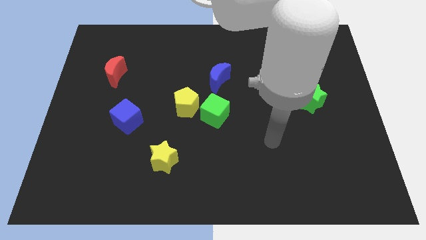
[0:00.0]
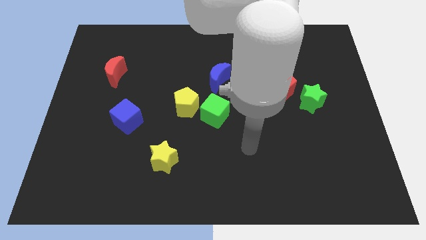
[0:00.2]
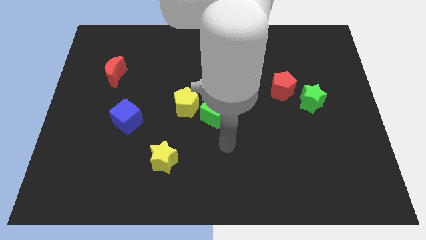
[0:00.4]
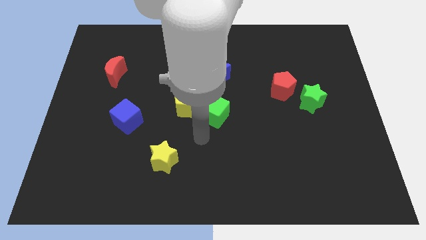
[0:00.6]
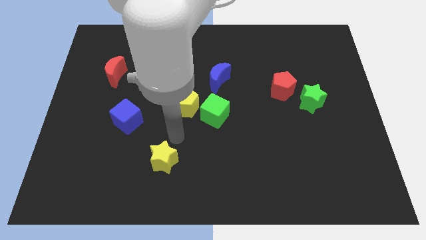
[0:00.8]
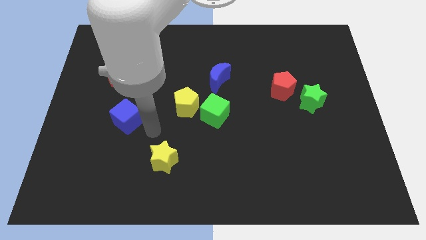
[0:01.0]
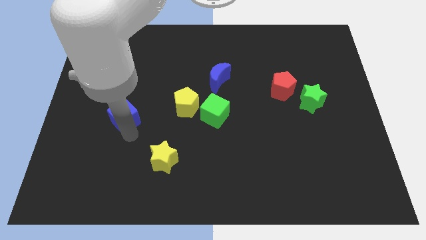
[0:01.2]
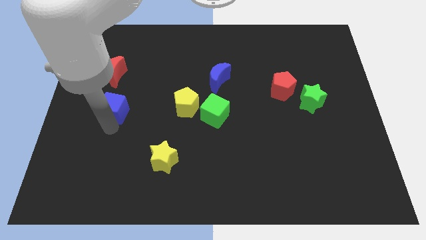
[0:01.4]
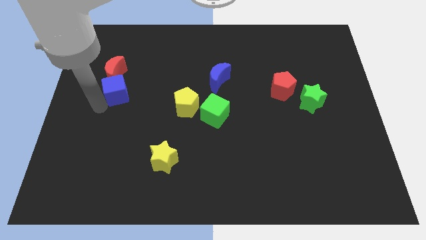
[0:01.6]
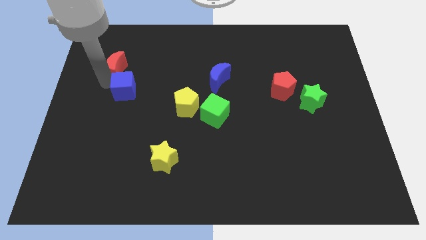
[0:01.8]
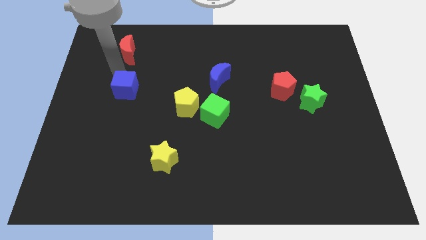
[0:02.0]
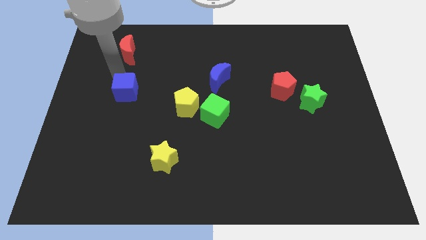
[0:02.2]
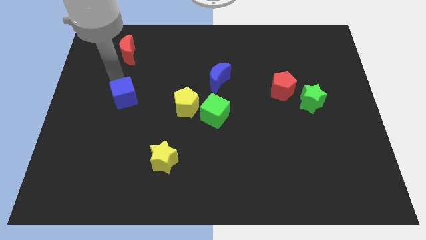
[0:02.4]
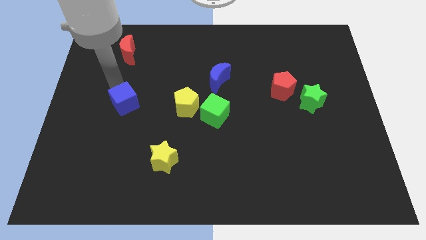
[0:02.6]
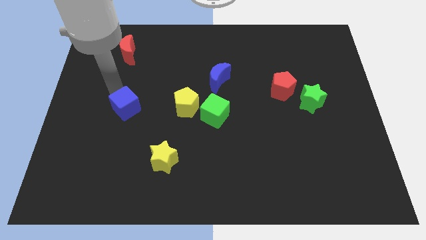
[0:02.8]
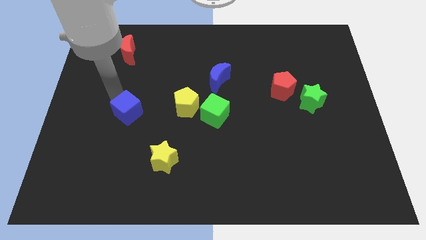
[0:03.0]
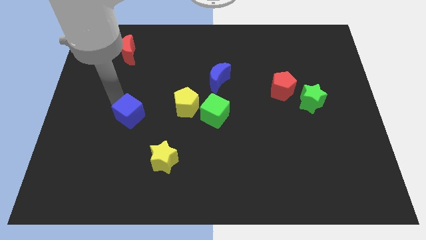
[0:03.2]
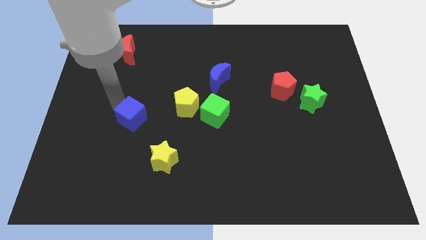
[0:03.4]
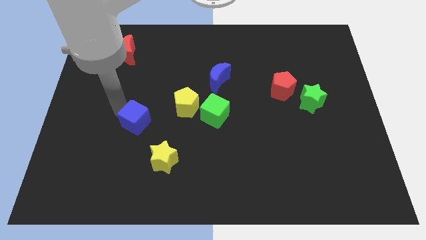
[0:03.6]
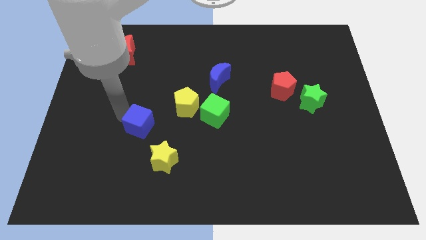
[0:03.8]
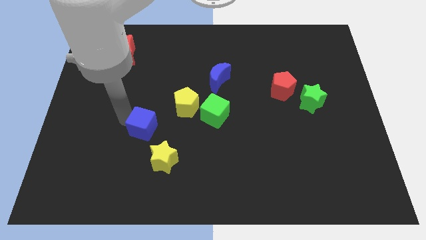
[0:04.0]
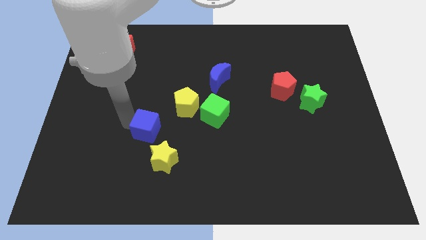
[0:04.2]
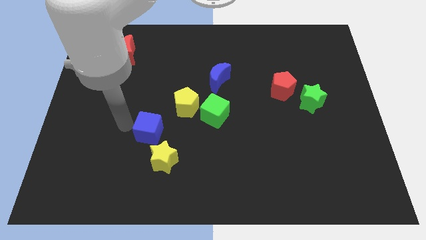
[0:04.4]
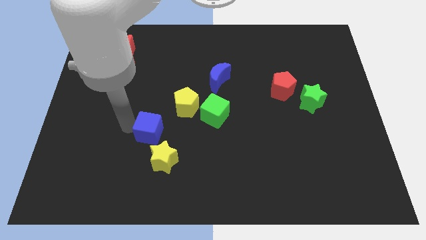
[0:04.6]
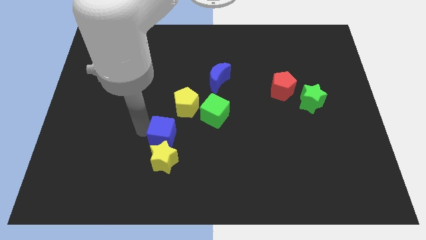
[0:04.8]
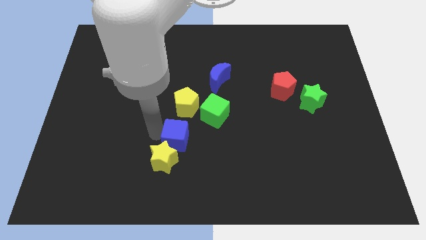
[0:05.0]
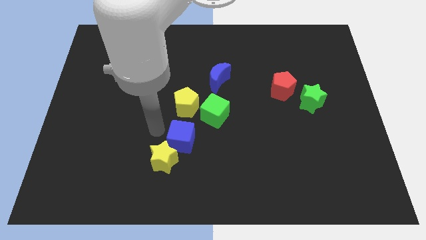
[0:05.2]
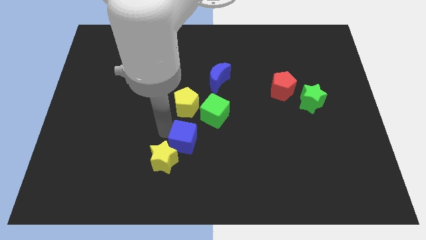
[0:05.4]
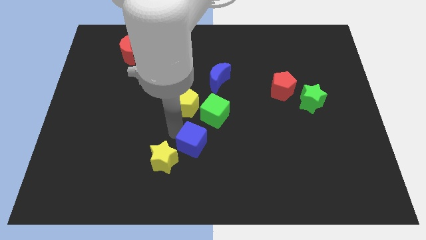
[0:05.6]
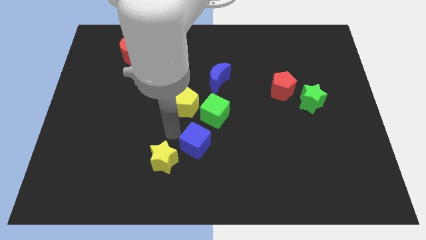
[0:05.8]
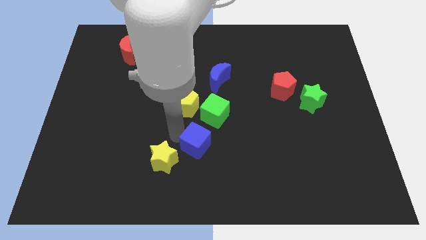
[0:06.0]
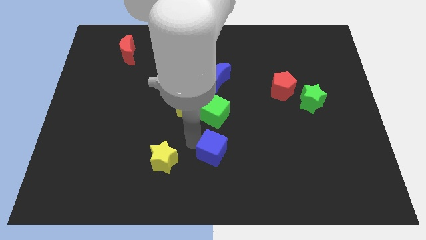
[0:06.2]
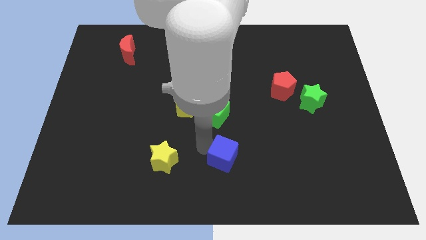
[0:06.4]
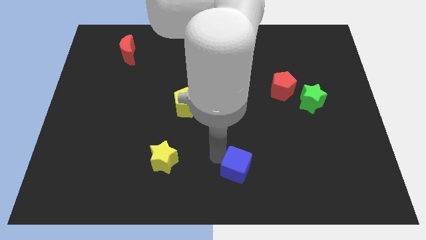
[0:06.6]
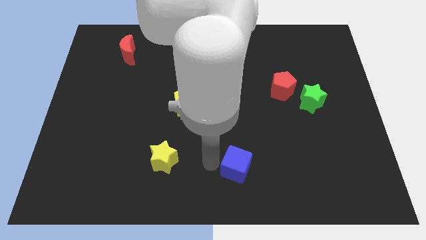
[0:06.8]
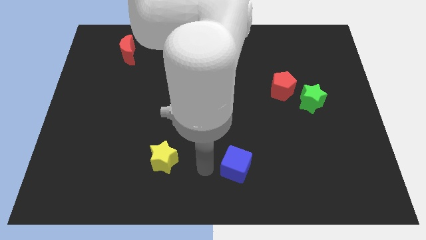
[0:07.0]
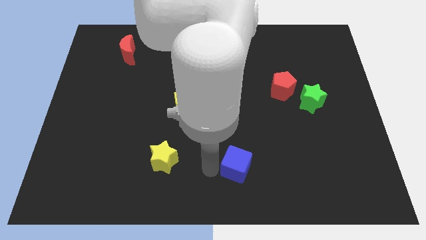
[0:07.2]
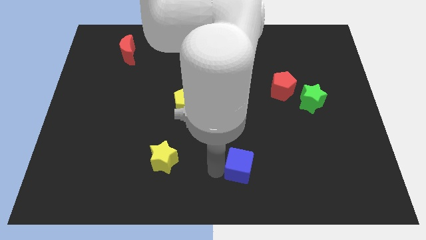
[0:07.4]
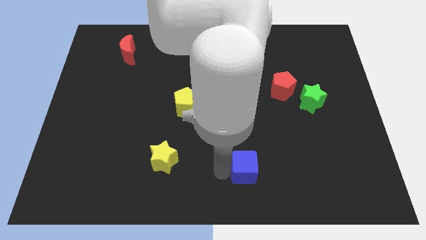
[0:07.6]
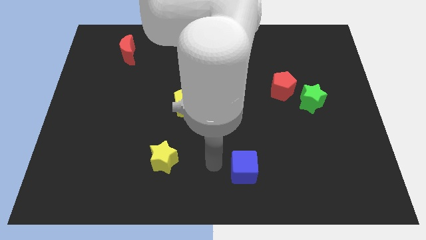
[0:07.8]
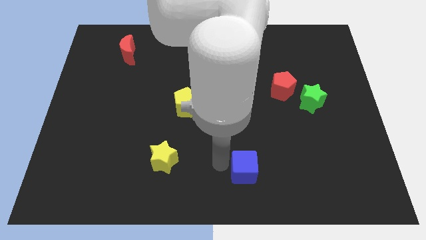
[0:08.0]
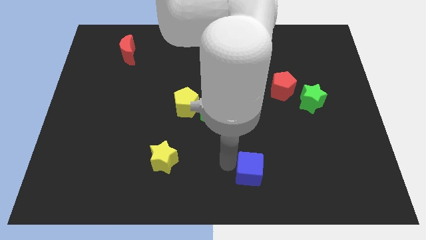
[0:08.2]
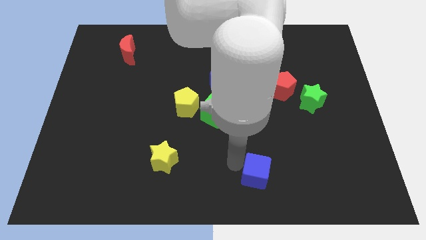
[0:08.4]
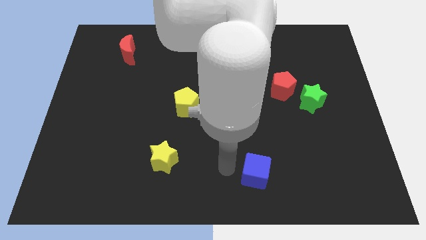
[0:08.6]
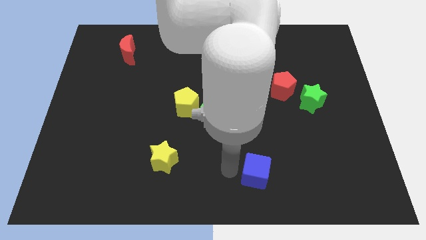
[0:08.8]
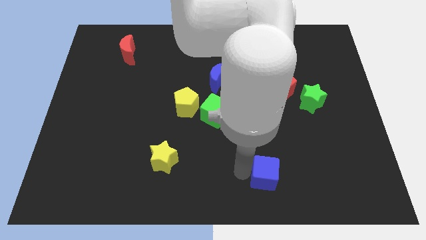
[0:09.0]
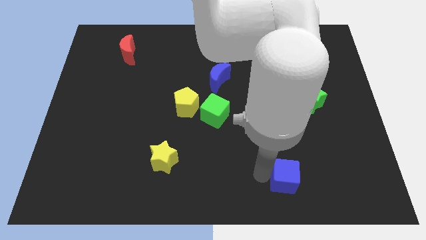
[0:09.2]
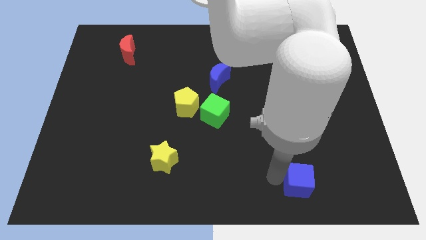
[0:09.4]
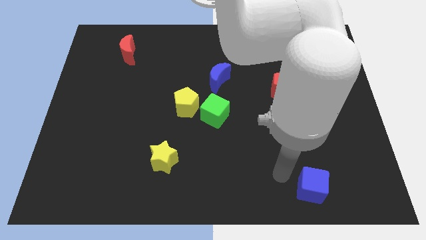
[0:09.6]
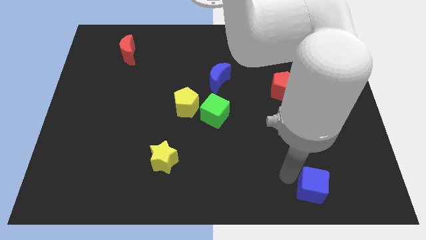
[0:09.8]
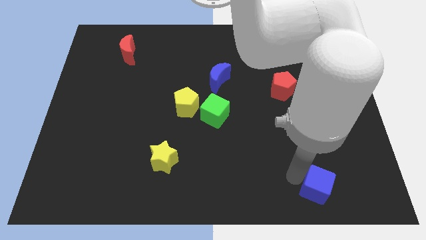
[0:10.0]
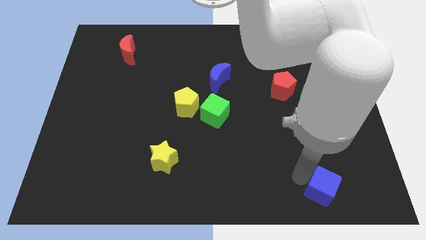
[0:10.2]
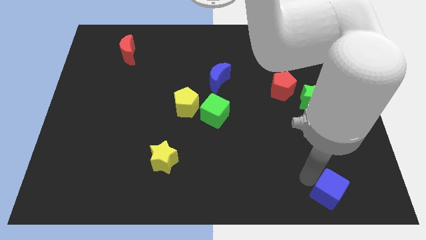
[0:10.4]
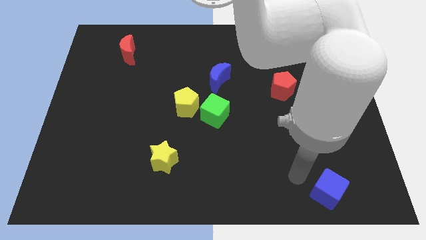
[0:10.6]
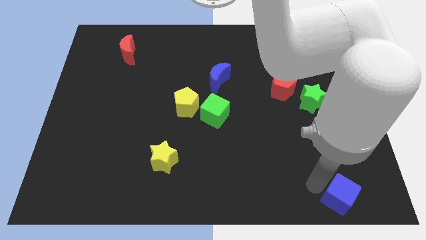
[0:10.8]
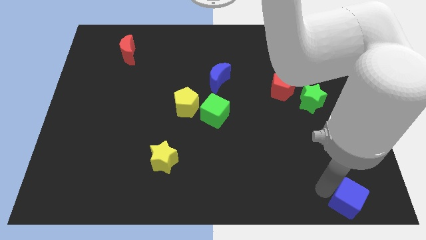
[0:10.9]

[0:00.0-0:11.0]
slide the blue cube to the bottom right
